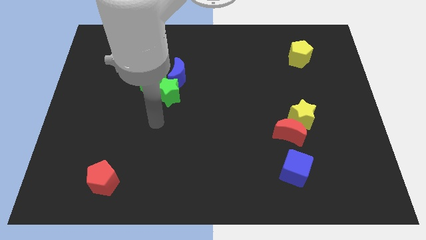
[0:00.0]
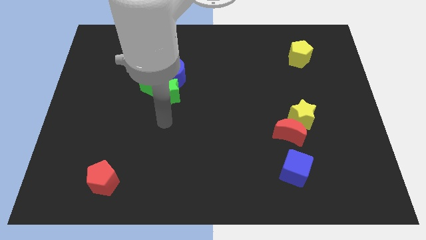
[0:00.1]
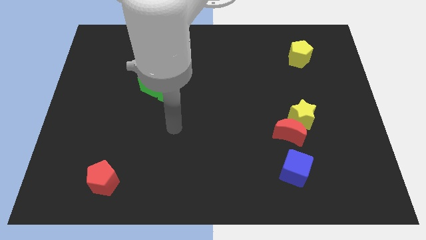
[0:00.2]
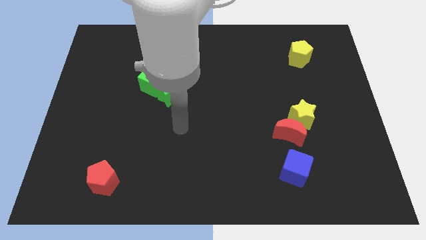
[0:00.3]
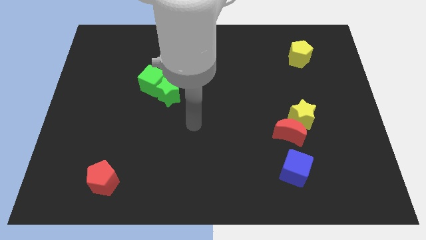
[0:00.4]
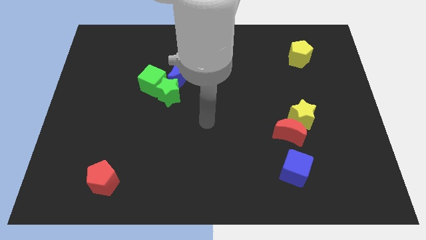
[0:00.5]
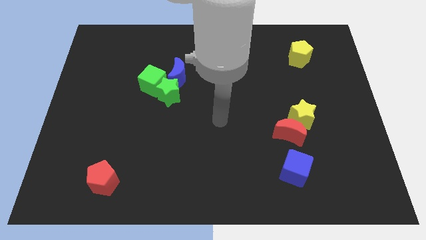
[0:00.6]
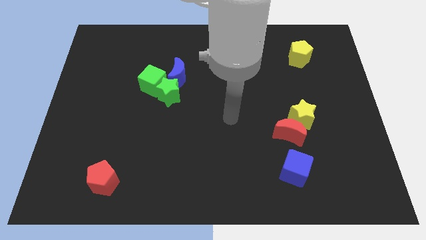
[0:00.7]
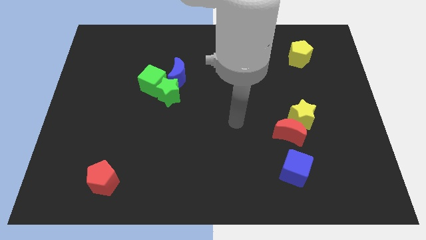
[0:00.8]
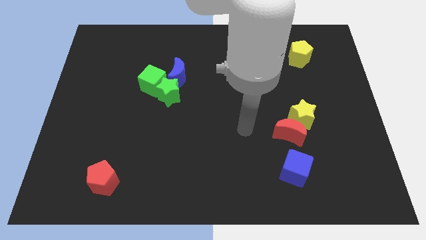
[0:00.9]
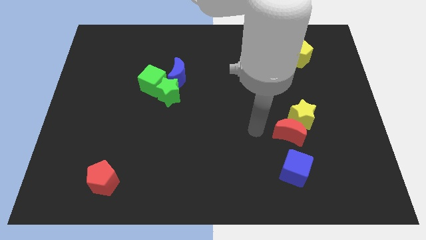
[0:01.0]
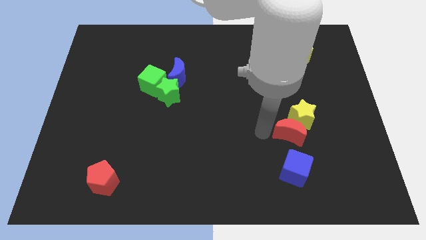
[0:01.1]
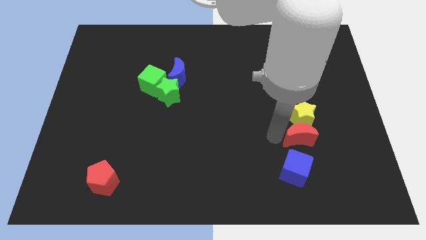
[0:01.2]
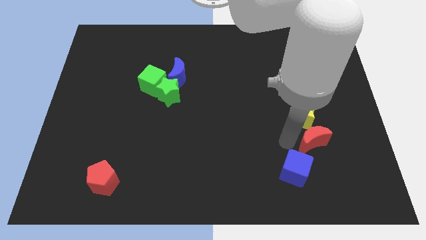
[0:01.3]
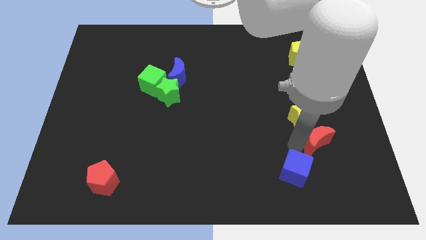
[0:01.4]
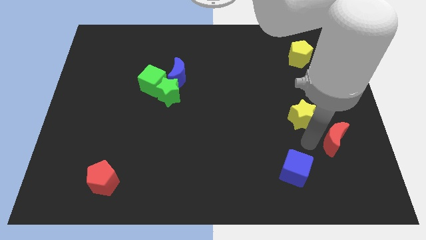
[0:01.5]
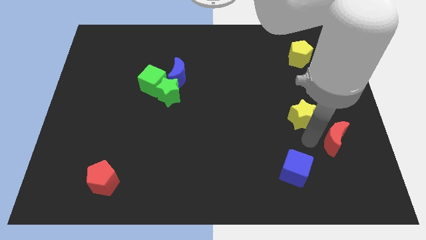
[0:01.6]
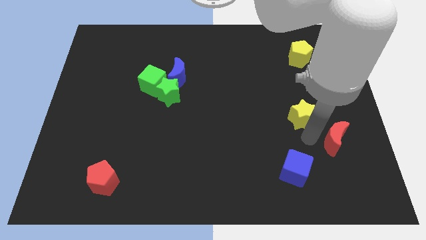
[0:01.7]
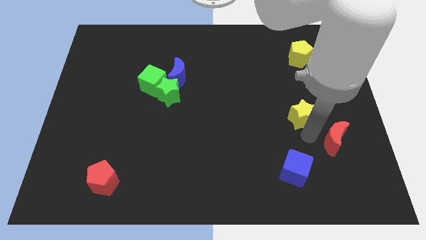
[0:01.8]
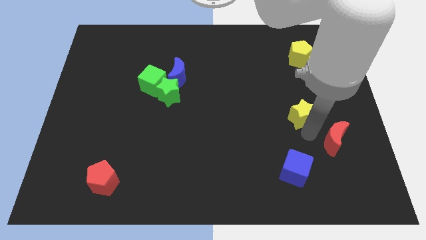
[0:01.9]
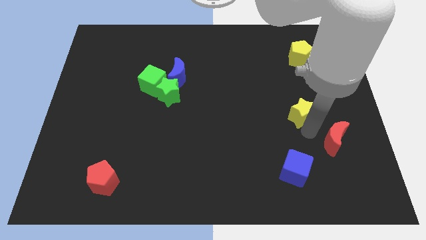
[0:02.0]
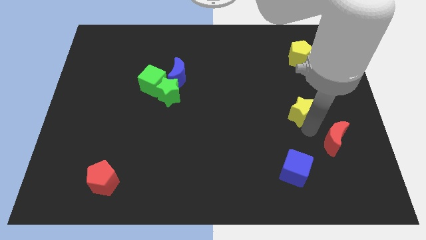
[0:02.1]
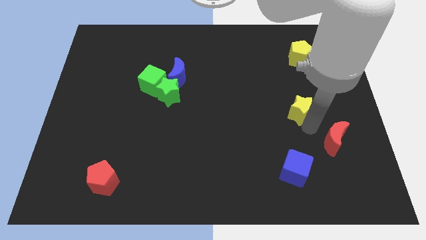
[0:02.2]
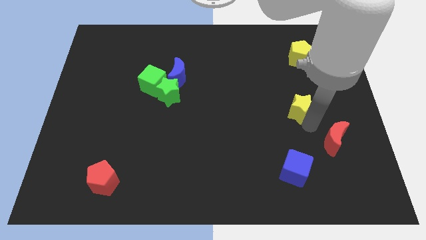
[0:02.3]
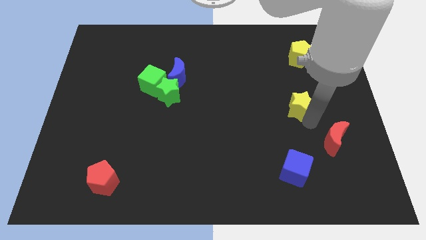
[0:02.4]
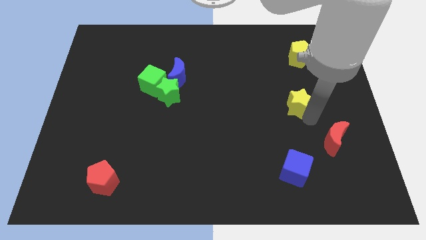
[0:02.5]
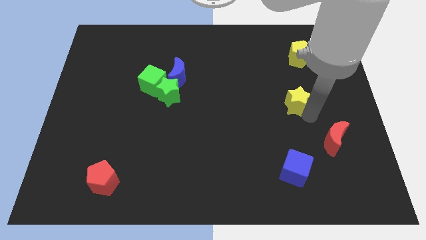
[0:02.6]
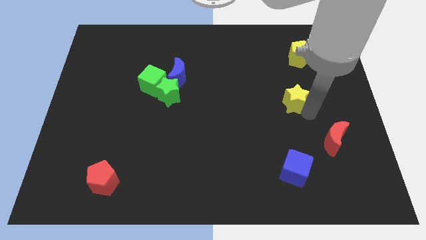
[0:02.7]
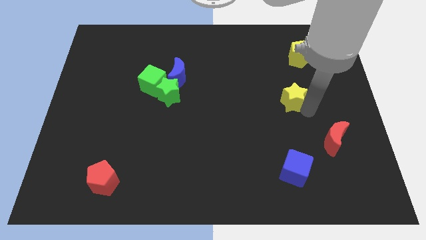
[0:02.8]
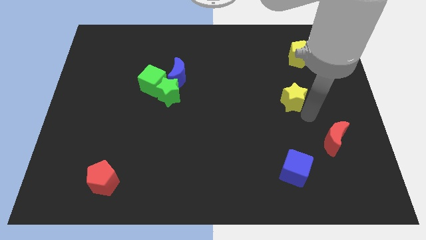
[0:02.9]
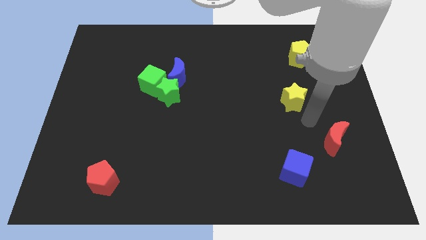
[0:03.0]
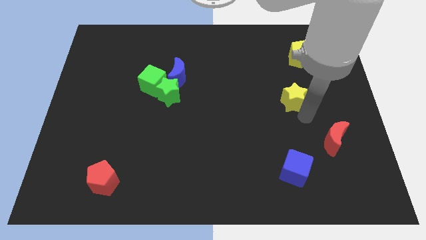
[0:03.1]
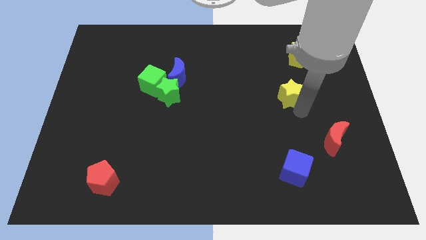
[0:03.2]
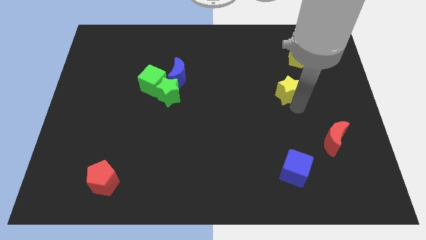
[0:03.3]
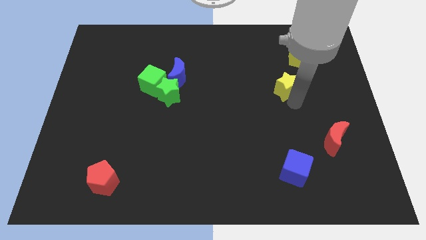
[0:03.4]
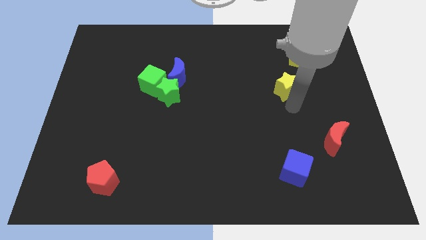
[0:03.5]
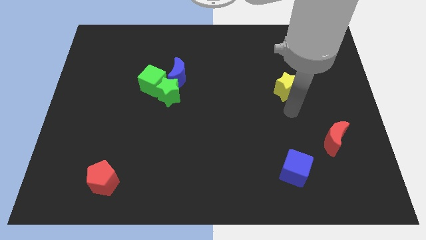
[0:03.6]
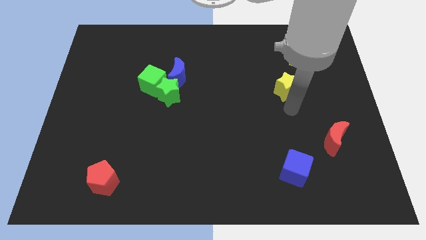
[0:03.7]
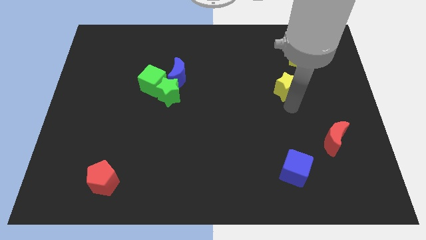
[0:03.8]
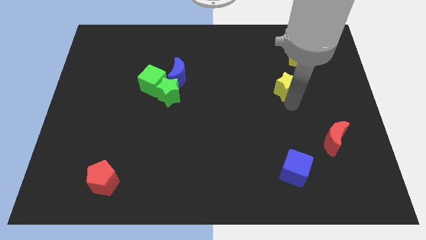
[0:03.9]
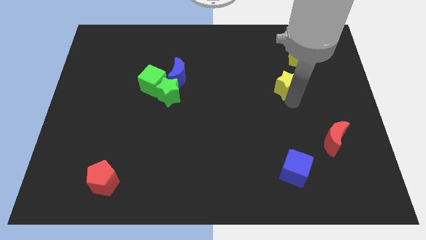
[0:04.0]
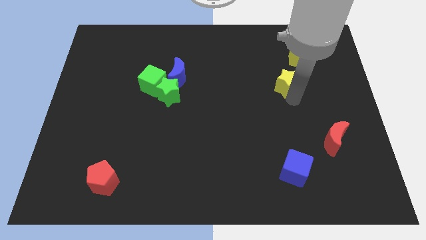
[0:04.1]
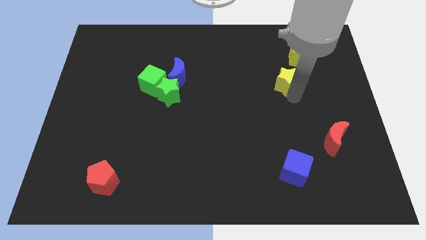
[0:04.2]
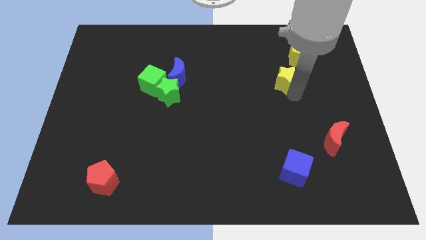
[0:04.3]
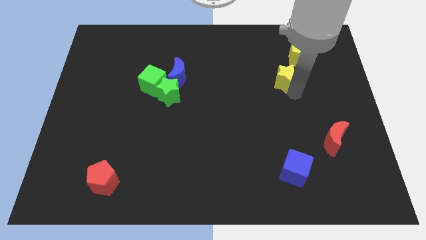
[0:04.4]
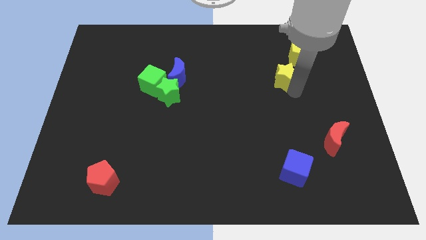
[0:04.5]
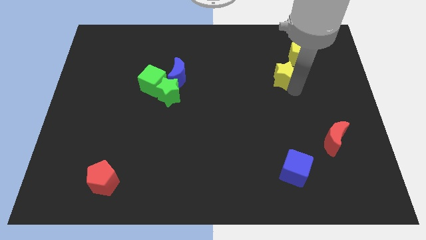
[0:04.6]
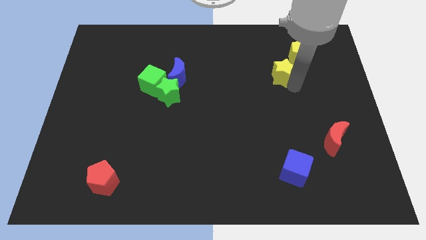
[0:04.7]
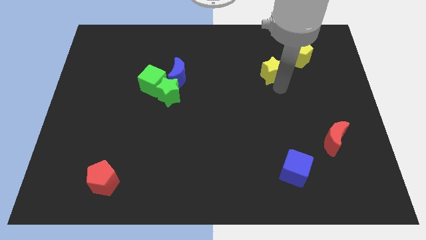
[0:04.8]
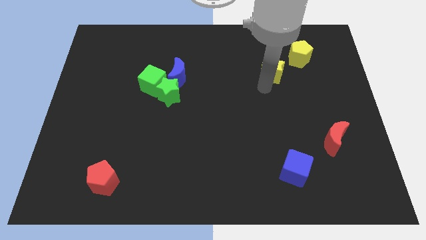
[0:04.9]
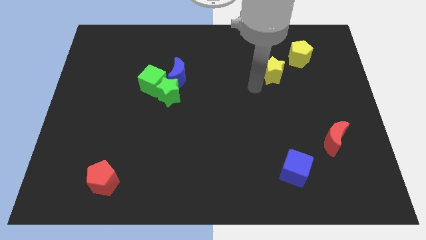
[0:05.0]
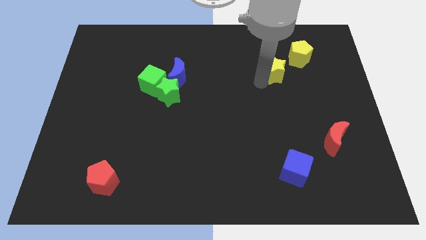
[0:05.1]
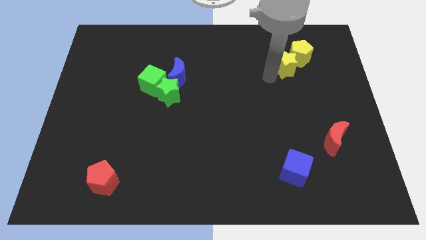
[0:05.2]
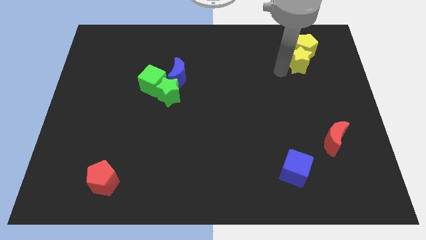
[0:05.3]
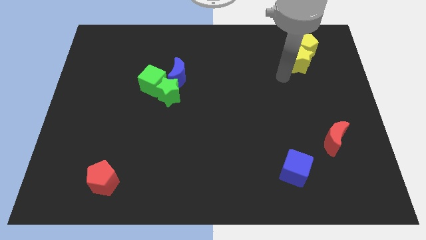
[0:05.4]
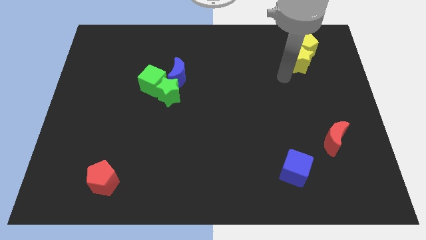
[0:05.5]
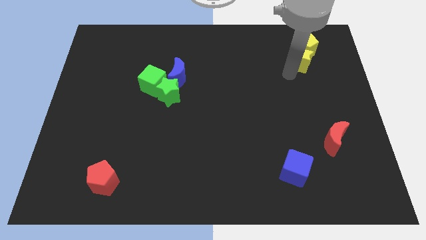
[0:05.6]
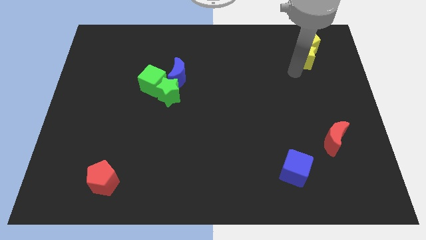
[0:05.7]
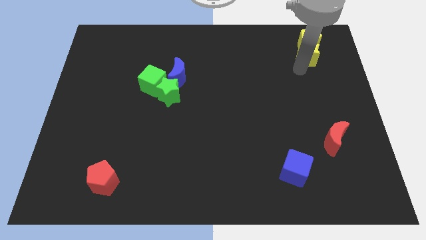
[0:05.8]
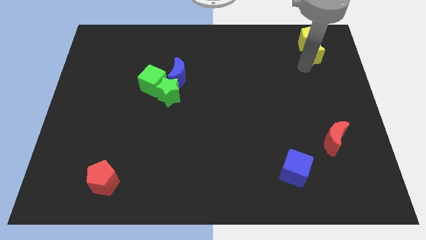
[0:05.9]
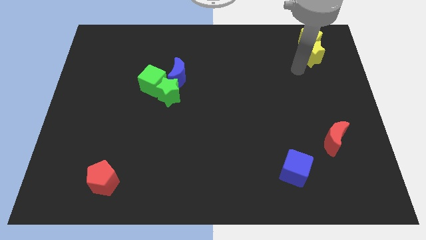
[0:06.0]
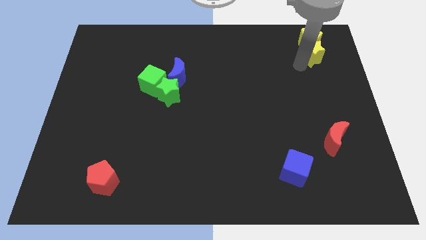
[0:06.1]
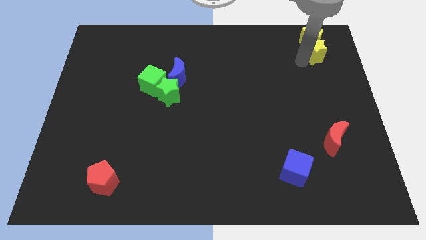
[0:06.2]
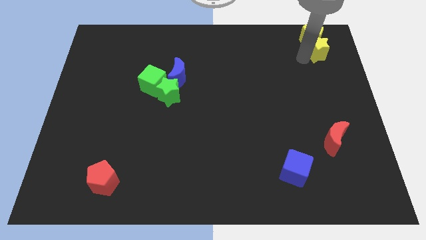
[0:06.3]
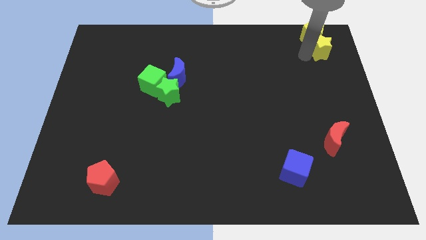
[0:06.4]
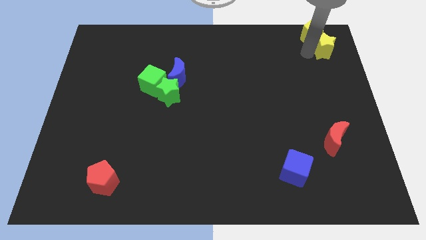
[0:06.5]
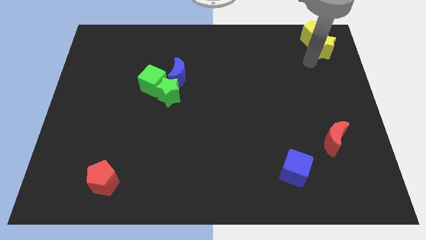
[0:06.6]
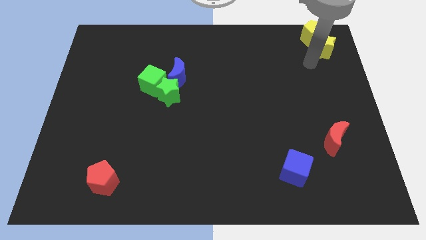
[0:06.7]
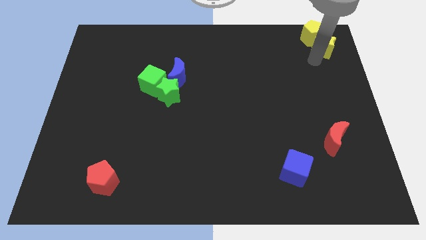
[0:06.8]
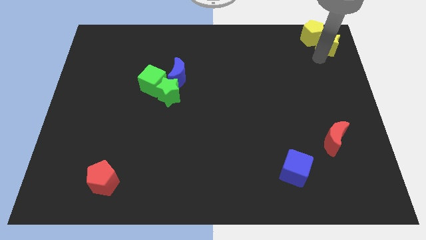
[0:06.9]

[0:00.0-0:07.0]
slide the yellow star to the top right
